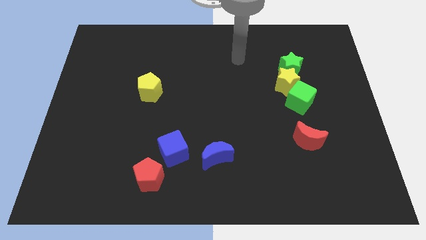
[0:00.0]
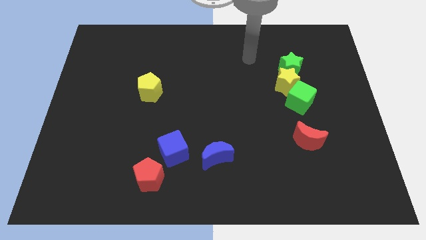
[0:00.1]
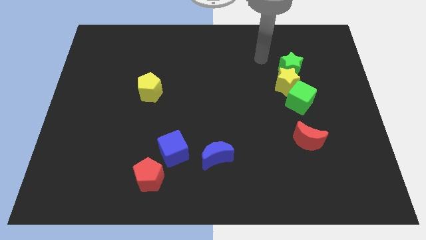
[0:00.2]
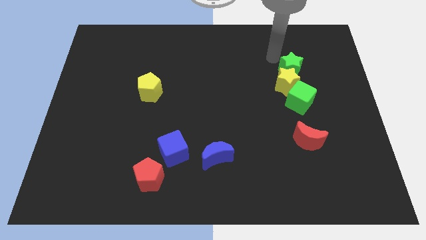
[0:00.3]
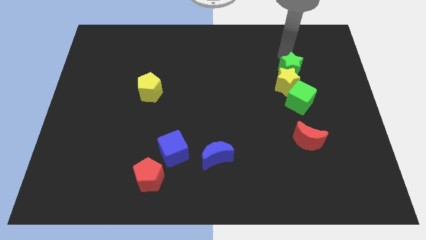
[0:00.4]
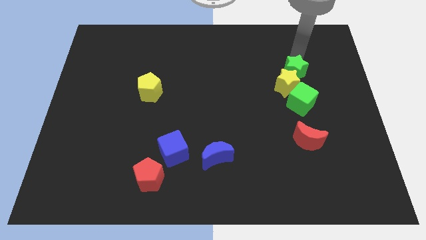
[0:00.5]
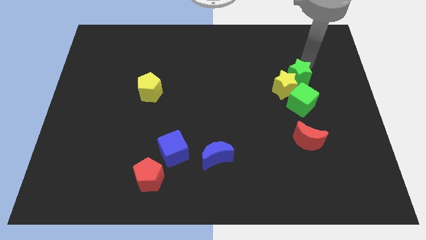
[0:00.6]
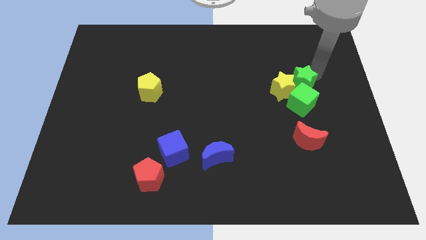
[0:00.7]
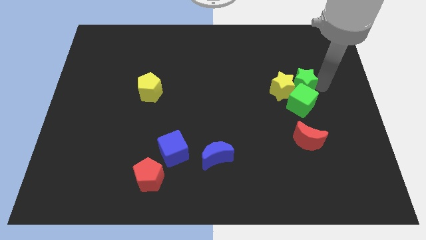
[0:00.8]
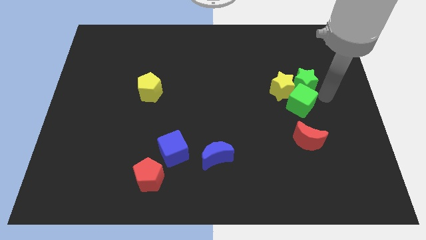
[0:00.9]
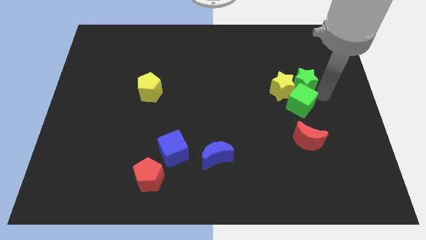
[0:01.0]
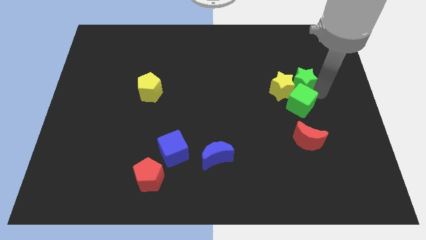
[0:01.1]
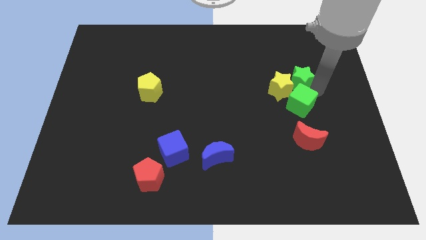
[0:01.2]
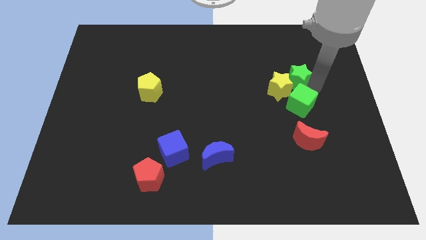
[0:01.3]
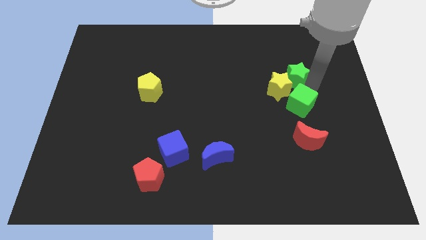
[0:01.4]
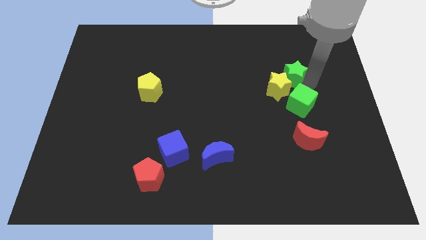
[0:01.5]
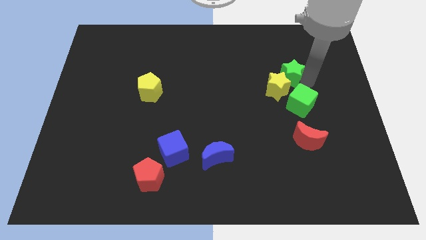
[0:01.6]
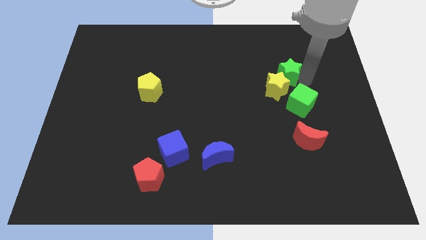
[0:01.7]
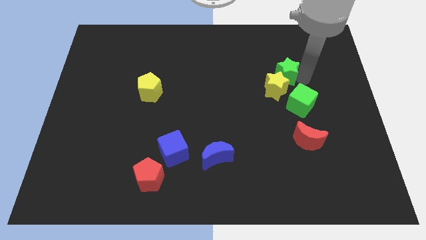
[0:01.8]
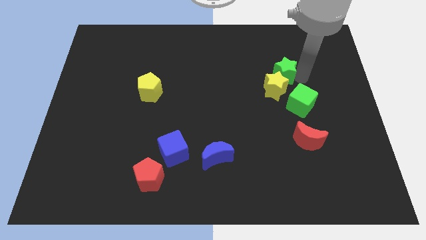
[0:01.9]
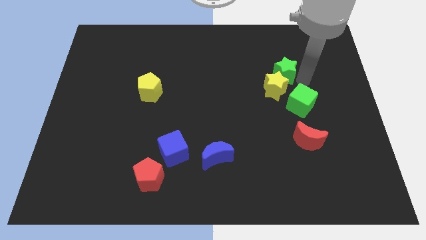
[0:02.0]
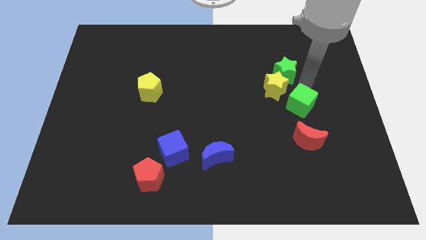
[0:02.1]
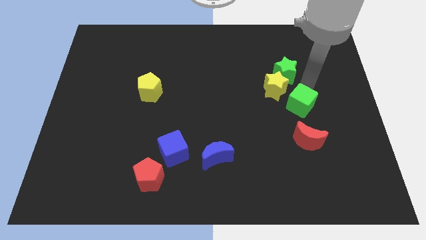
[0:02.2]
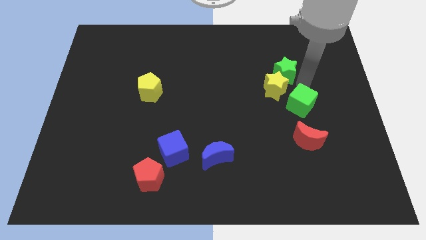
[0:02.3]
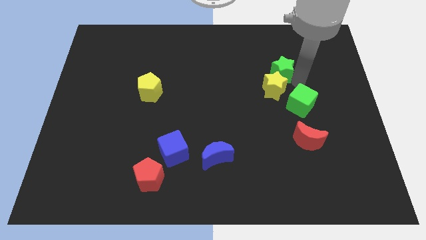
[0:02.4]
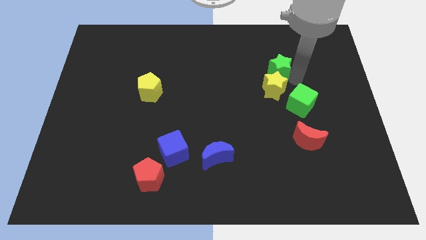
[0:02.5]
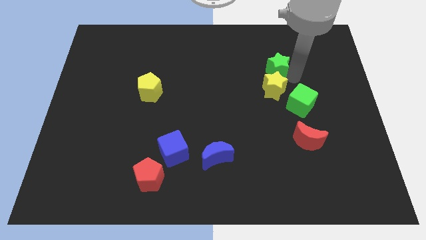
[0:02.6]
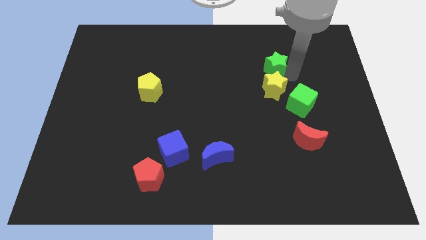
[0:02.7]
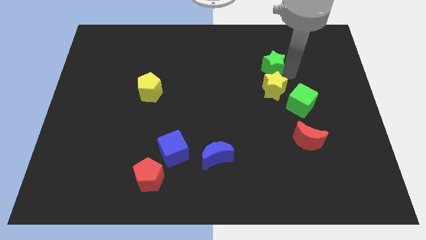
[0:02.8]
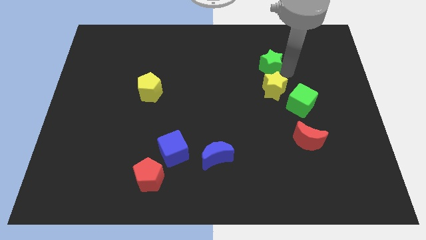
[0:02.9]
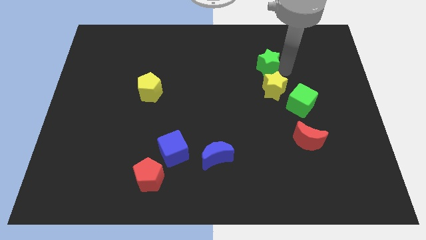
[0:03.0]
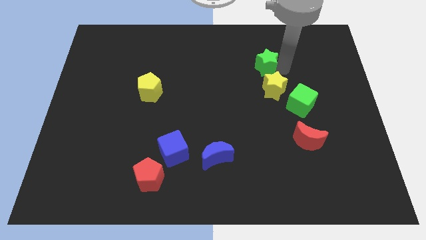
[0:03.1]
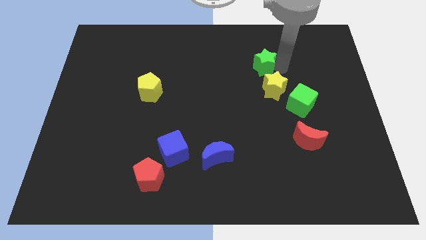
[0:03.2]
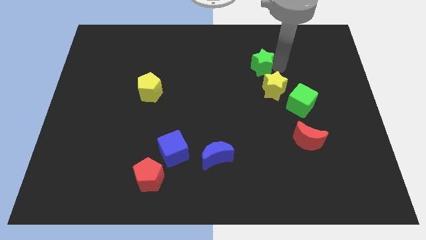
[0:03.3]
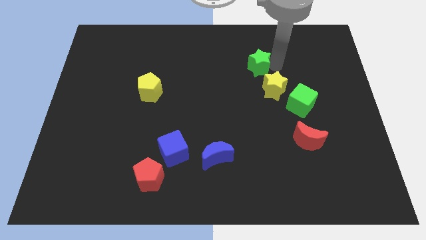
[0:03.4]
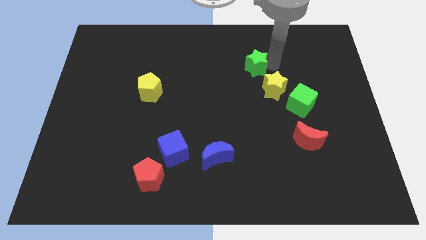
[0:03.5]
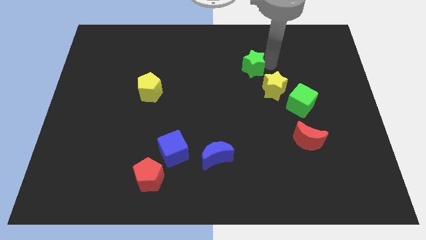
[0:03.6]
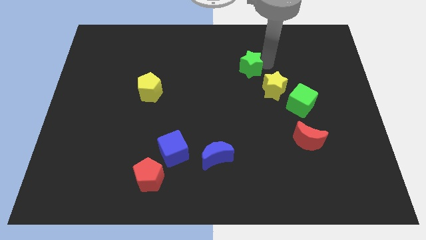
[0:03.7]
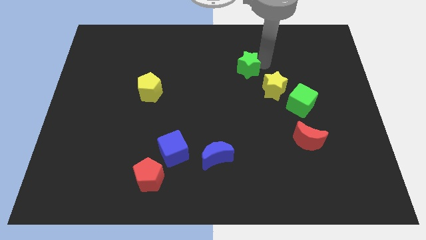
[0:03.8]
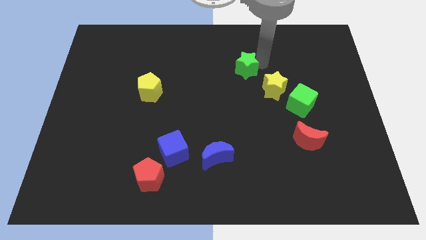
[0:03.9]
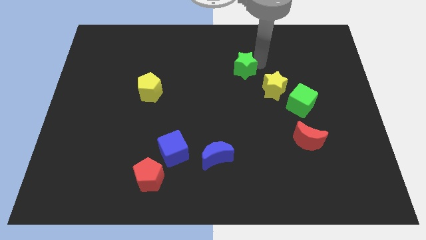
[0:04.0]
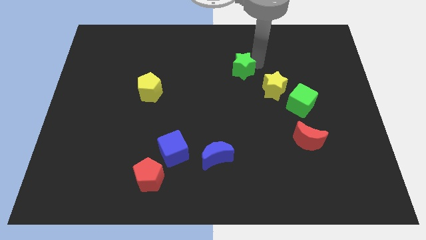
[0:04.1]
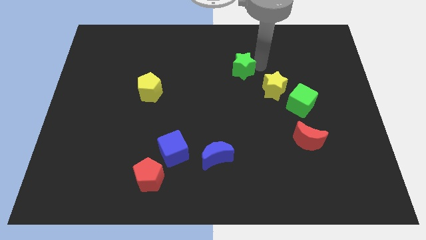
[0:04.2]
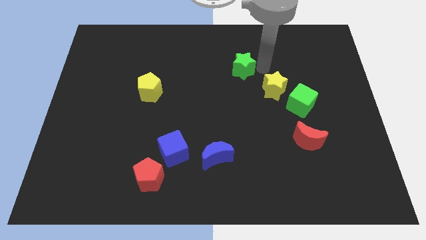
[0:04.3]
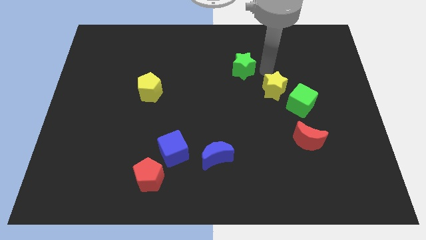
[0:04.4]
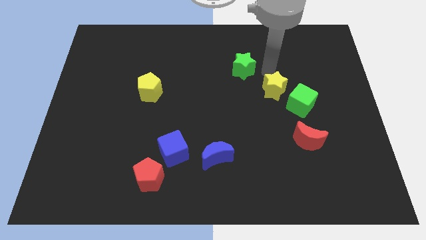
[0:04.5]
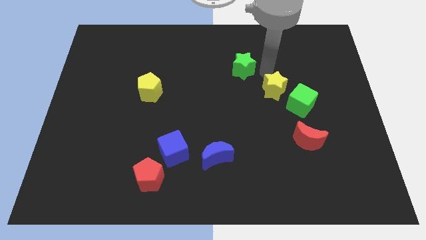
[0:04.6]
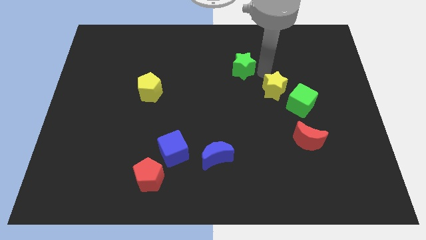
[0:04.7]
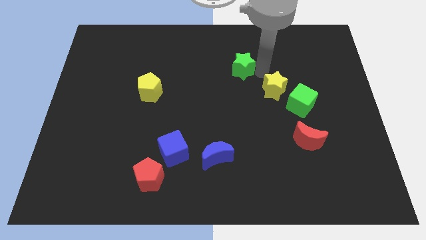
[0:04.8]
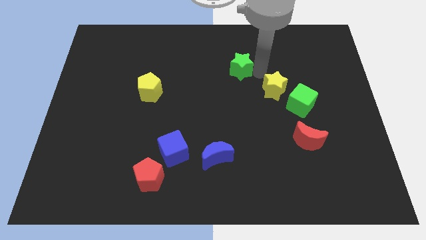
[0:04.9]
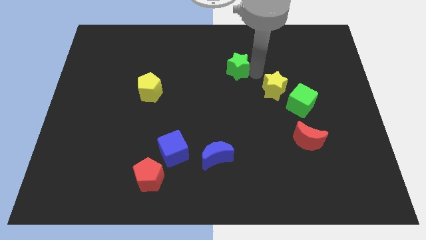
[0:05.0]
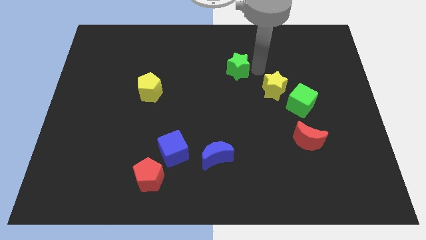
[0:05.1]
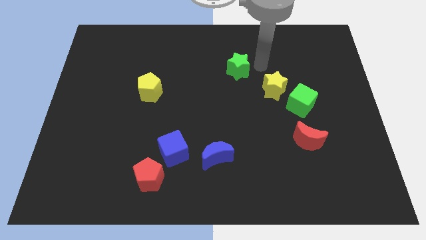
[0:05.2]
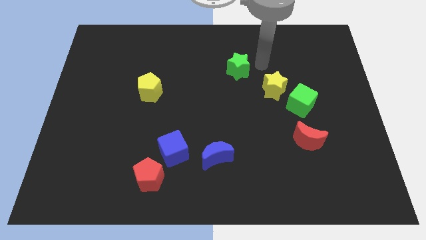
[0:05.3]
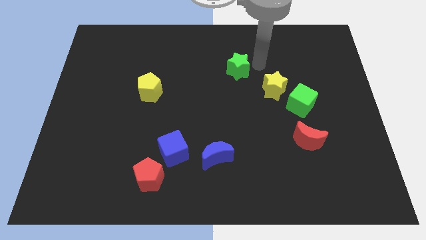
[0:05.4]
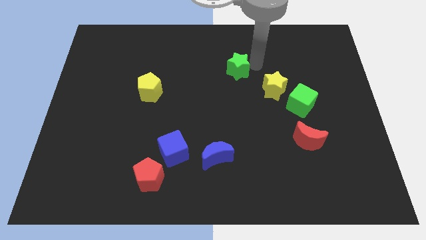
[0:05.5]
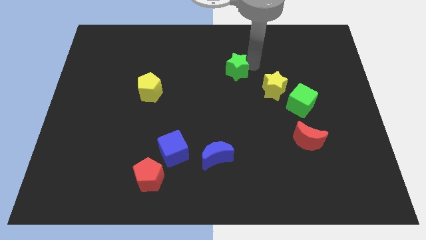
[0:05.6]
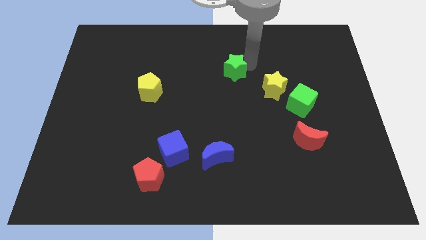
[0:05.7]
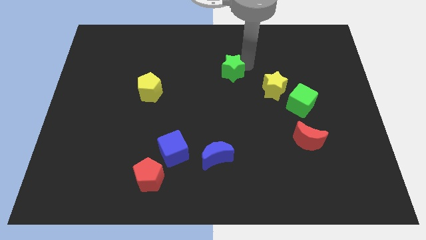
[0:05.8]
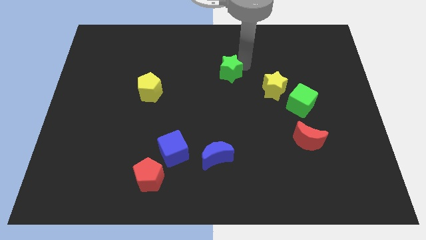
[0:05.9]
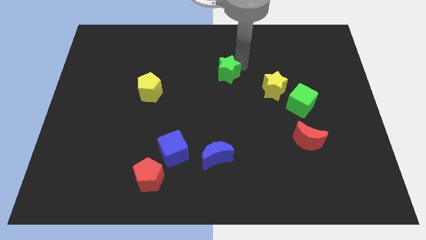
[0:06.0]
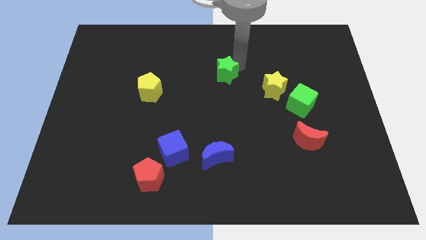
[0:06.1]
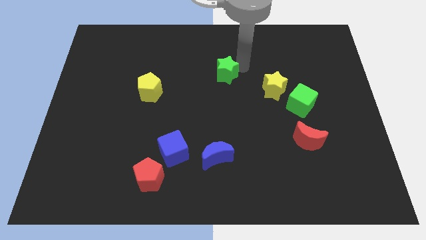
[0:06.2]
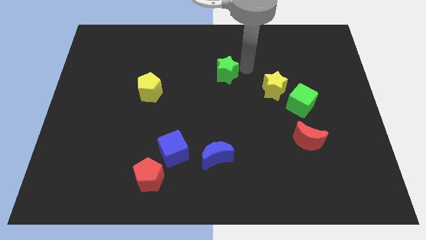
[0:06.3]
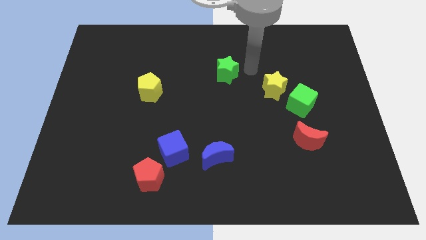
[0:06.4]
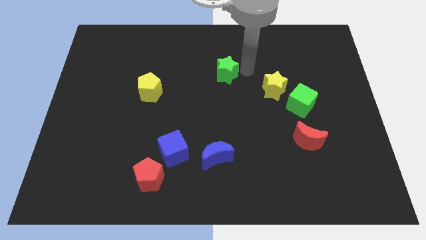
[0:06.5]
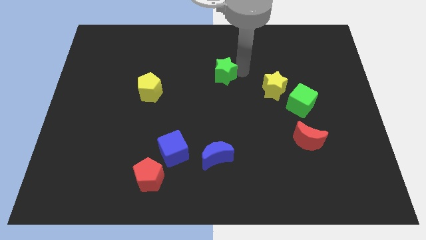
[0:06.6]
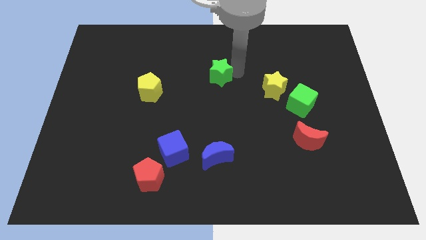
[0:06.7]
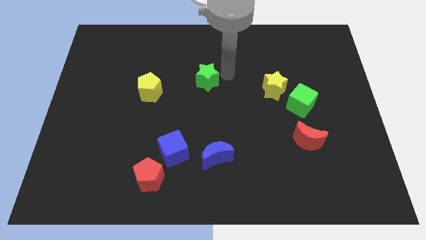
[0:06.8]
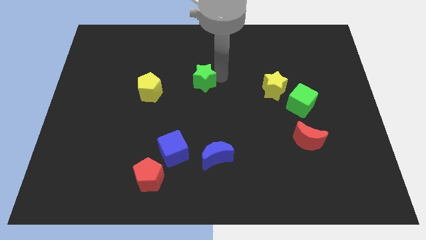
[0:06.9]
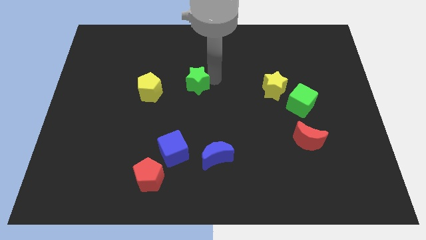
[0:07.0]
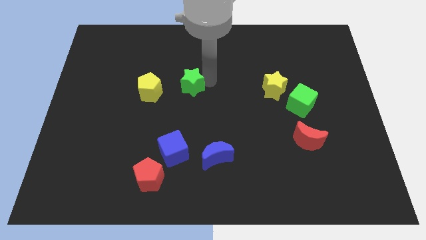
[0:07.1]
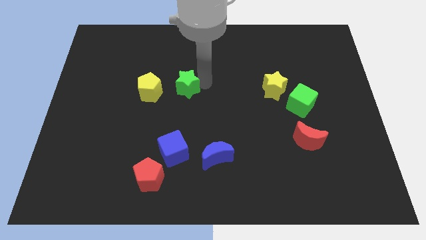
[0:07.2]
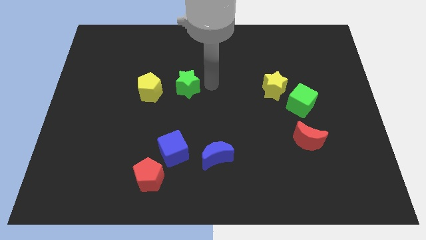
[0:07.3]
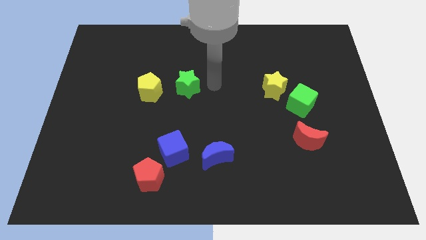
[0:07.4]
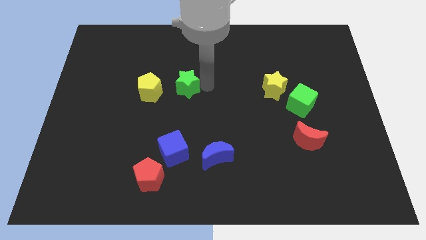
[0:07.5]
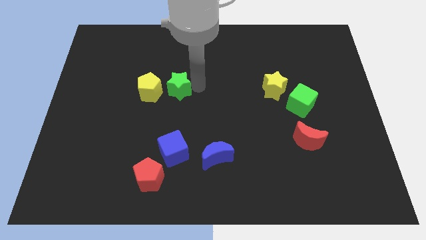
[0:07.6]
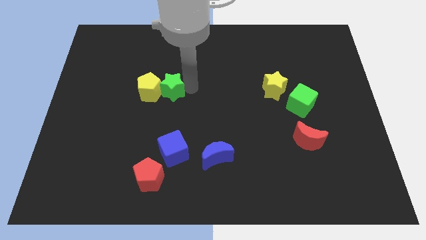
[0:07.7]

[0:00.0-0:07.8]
push the green star close to the yellow pentagon
